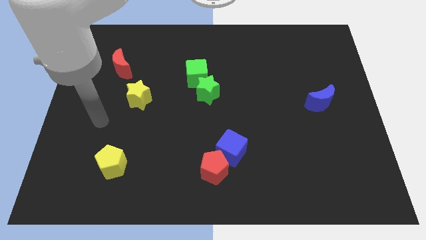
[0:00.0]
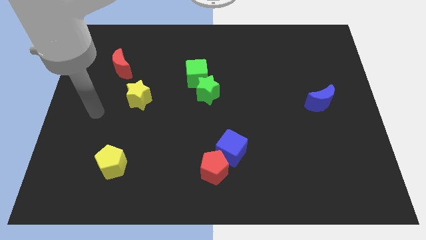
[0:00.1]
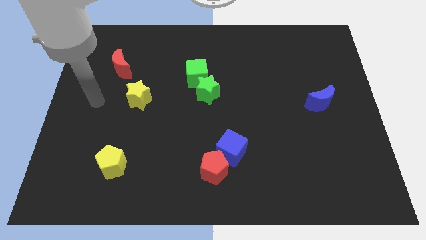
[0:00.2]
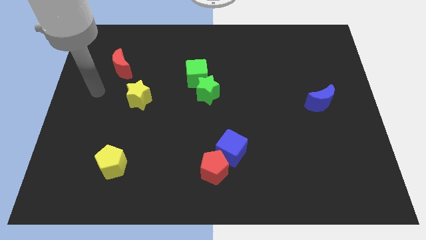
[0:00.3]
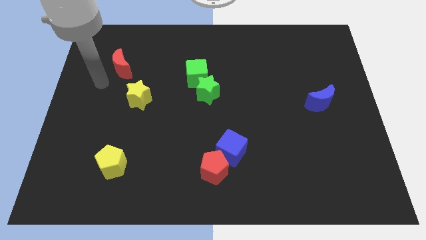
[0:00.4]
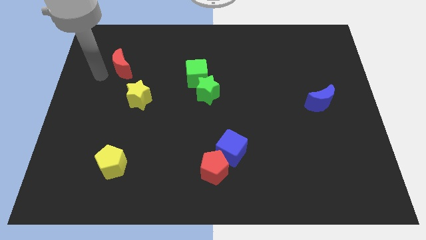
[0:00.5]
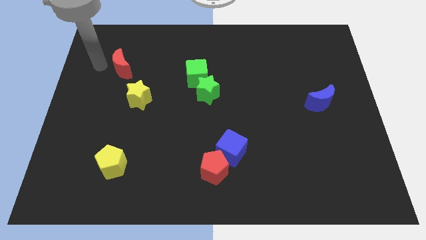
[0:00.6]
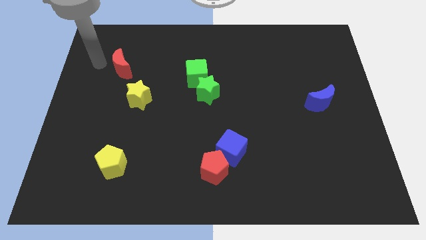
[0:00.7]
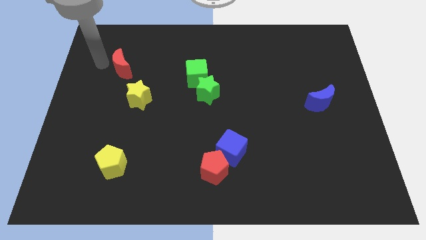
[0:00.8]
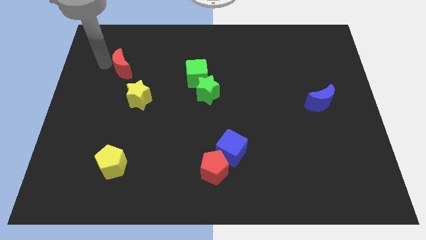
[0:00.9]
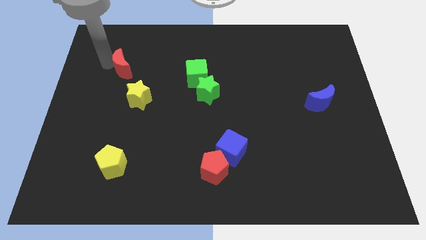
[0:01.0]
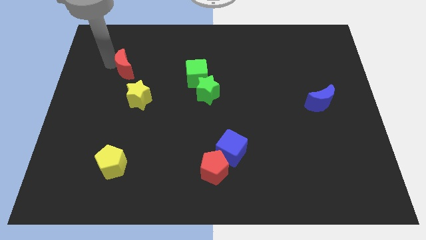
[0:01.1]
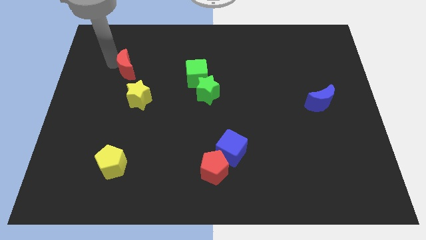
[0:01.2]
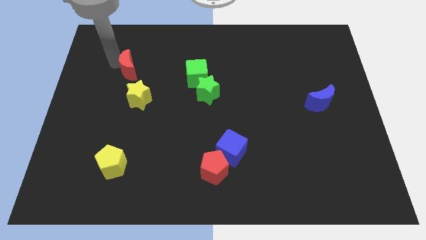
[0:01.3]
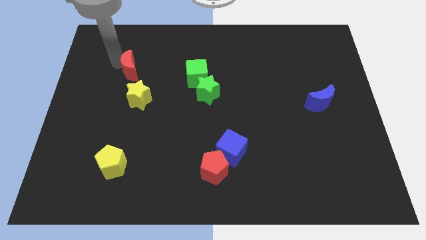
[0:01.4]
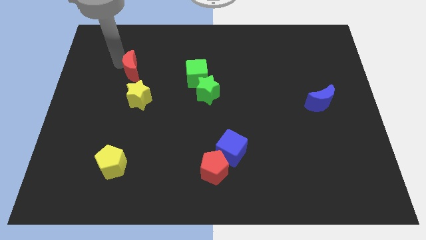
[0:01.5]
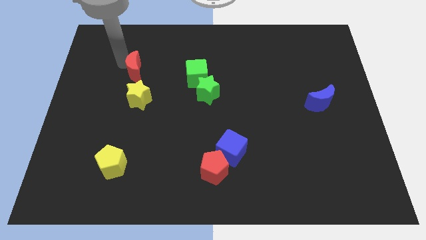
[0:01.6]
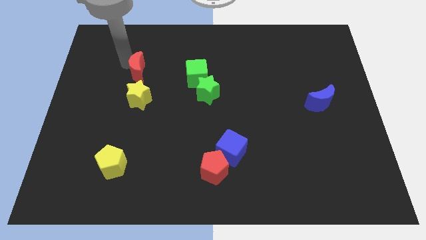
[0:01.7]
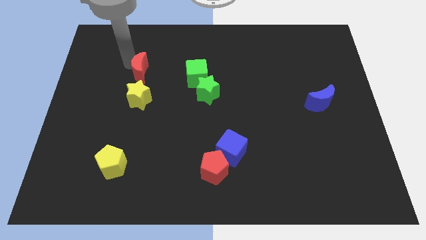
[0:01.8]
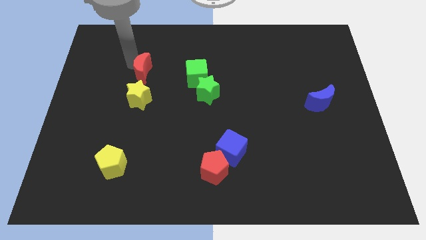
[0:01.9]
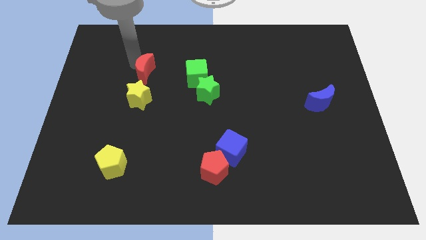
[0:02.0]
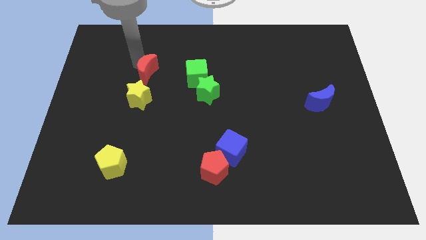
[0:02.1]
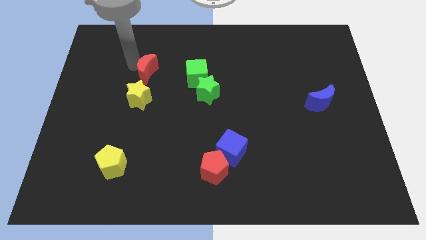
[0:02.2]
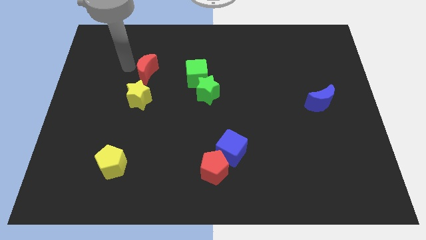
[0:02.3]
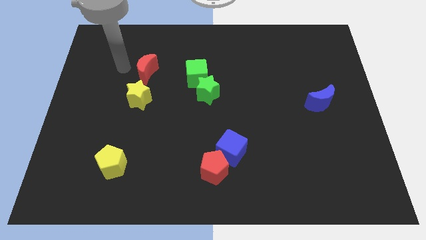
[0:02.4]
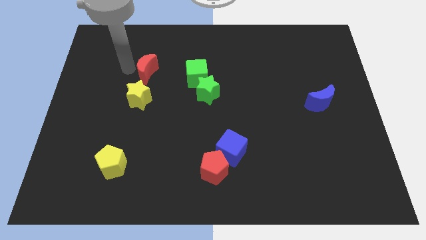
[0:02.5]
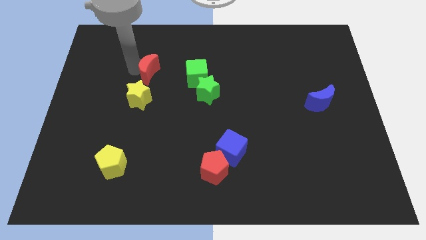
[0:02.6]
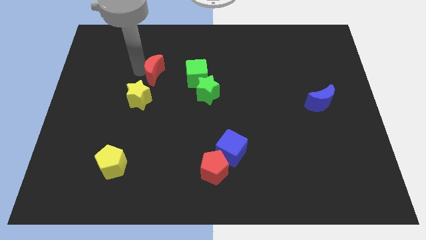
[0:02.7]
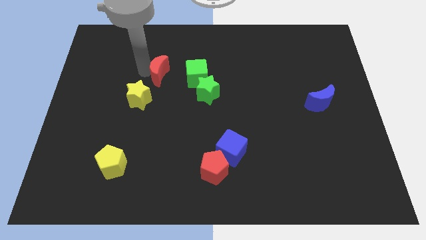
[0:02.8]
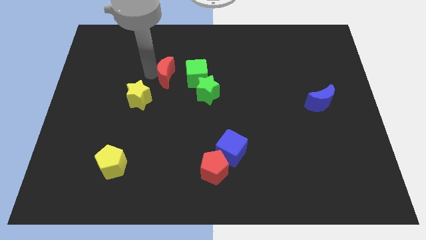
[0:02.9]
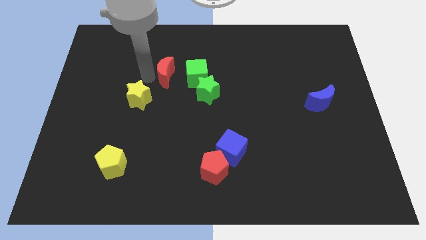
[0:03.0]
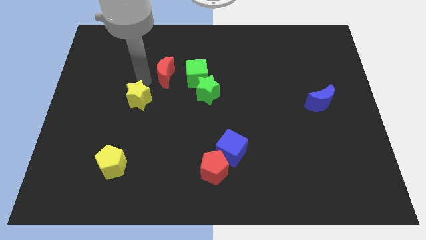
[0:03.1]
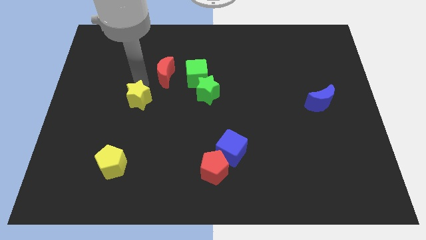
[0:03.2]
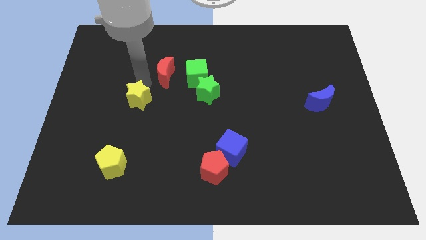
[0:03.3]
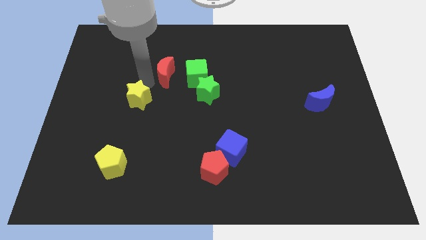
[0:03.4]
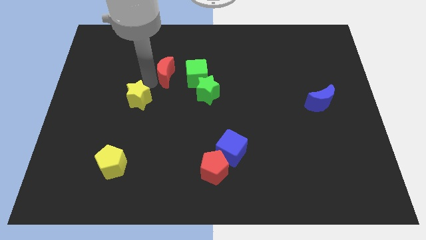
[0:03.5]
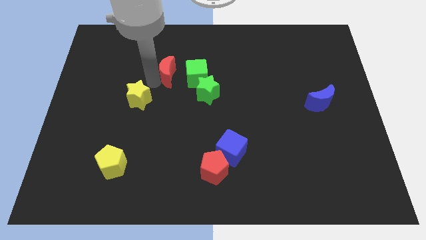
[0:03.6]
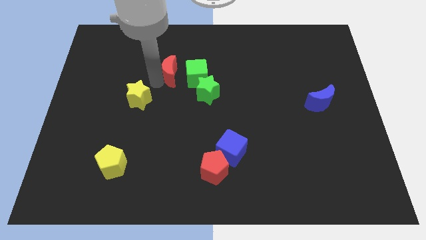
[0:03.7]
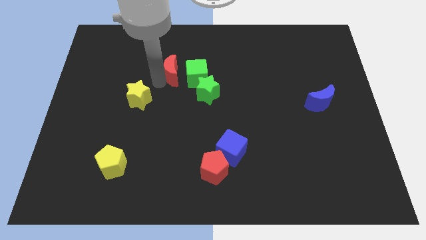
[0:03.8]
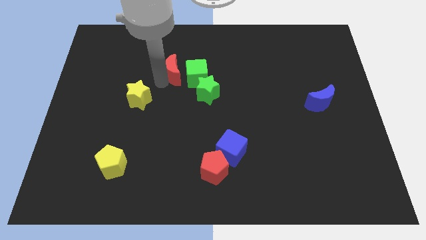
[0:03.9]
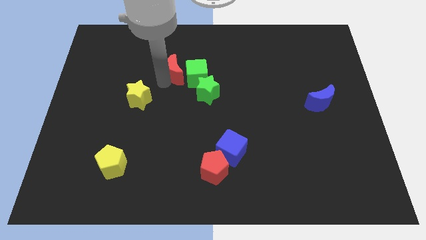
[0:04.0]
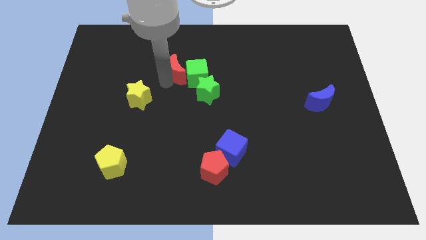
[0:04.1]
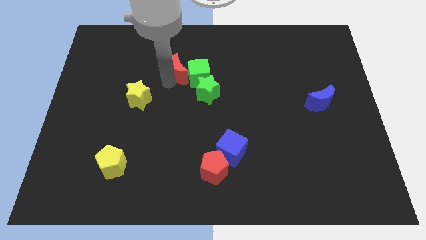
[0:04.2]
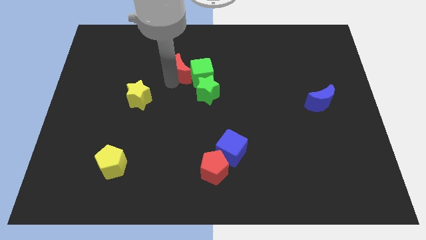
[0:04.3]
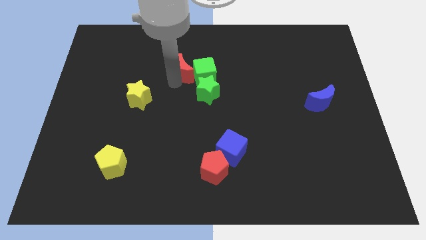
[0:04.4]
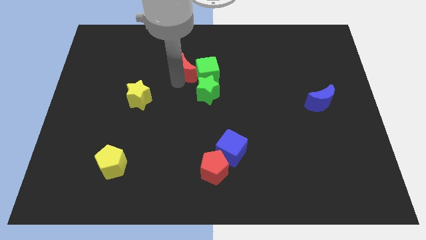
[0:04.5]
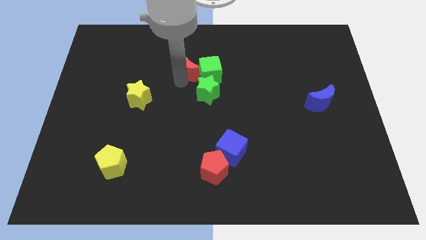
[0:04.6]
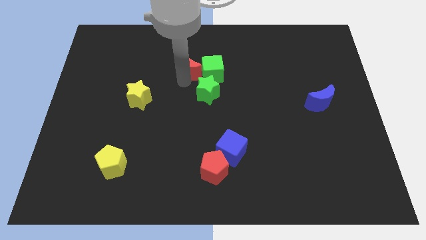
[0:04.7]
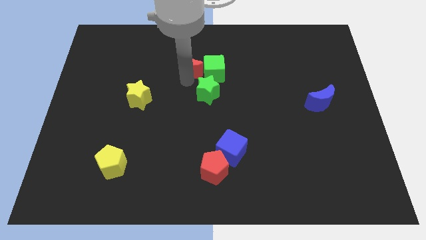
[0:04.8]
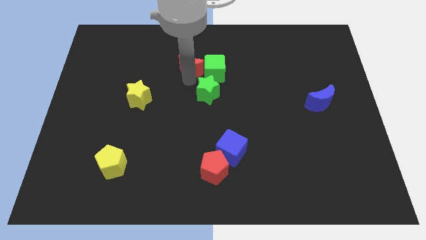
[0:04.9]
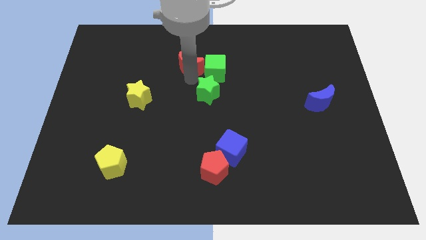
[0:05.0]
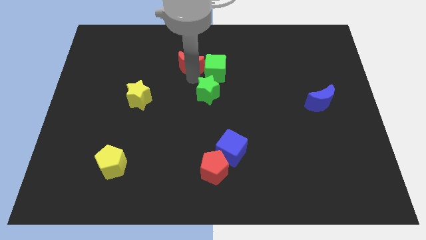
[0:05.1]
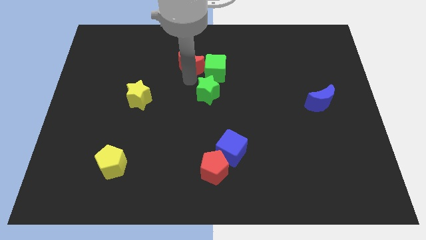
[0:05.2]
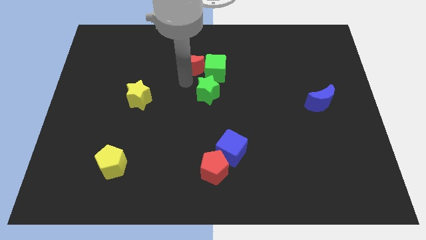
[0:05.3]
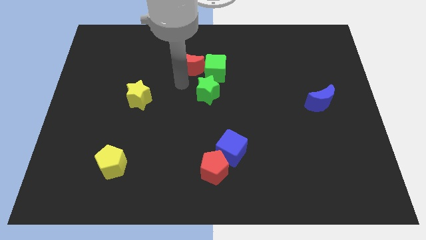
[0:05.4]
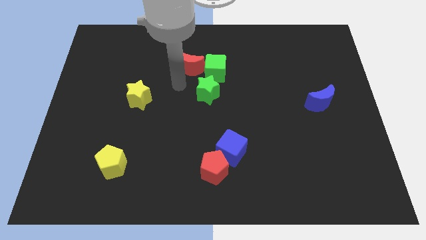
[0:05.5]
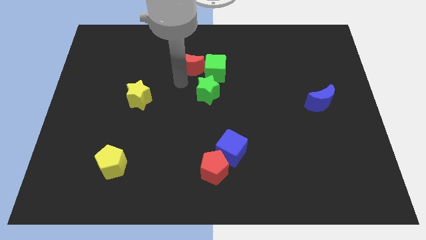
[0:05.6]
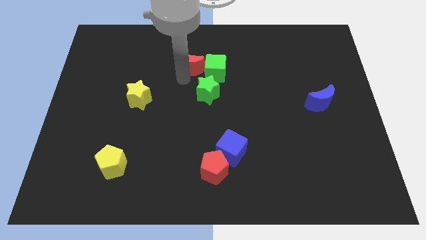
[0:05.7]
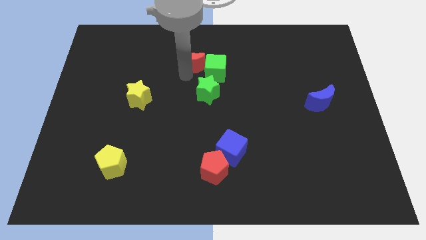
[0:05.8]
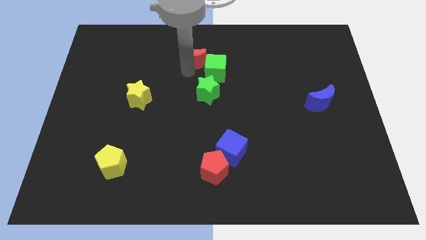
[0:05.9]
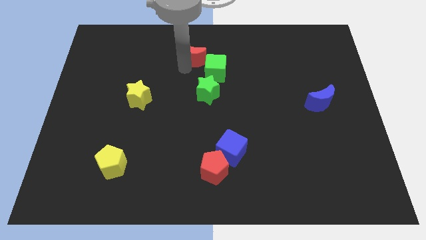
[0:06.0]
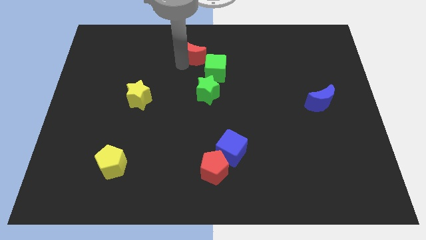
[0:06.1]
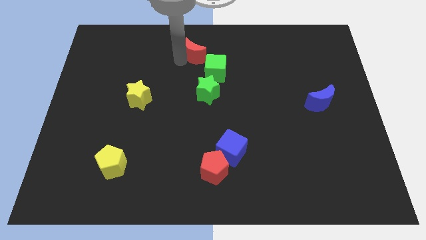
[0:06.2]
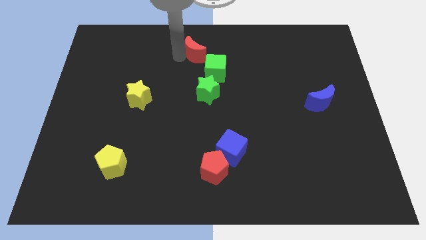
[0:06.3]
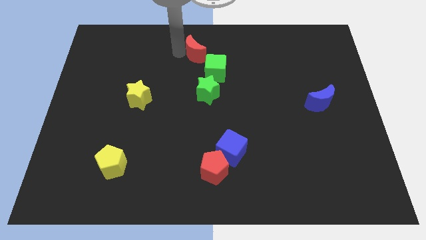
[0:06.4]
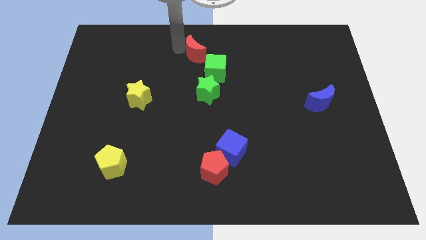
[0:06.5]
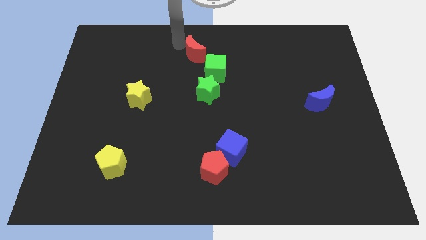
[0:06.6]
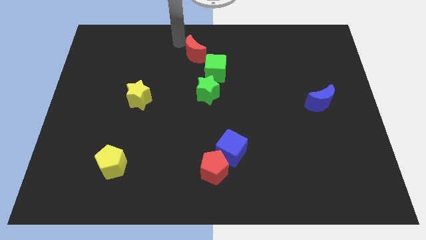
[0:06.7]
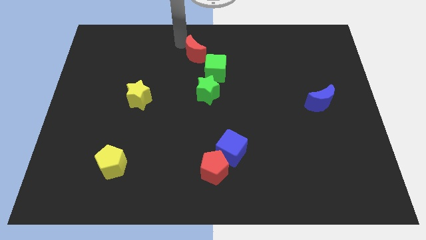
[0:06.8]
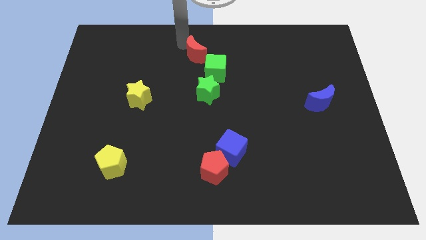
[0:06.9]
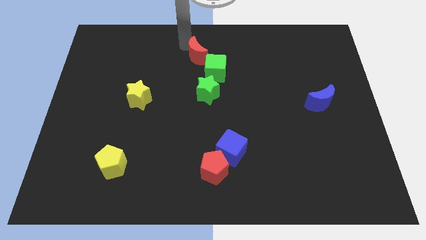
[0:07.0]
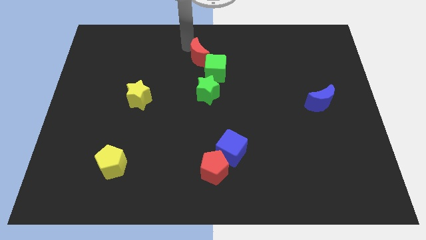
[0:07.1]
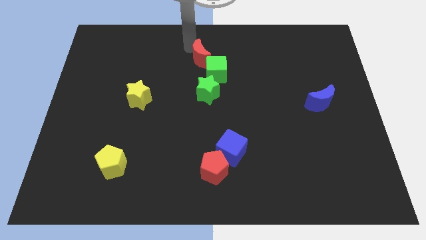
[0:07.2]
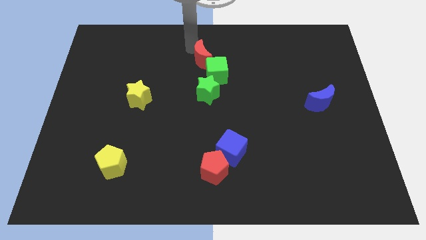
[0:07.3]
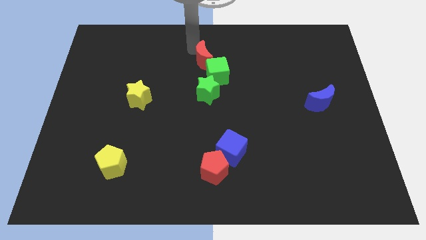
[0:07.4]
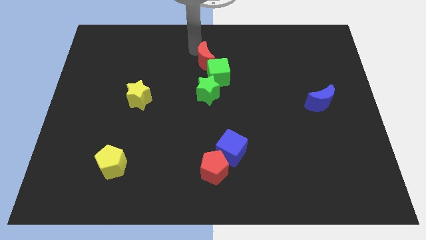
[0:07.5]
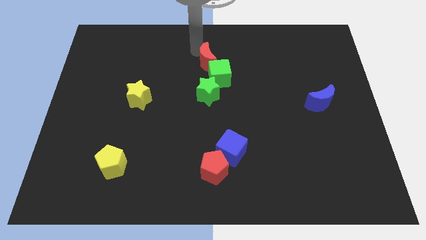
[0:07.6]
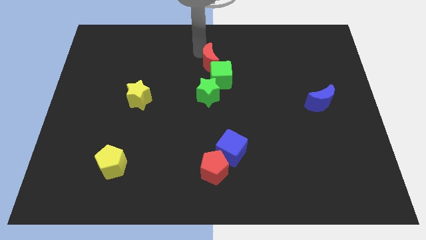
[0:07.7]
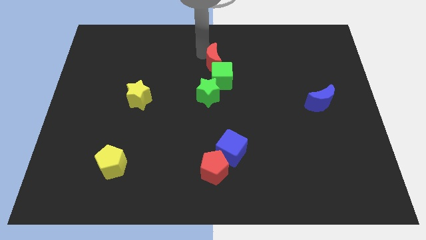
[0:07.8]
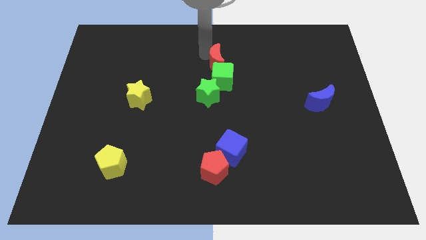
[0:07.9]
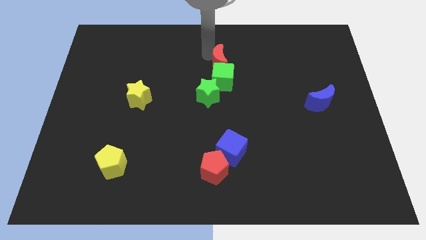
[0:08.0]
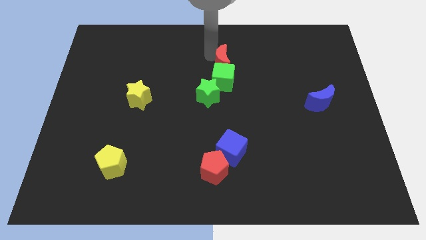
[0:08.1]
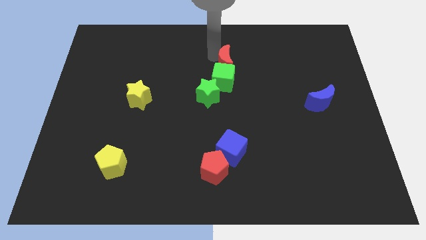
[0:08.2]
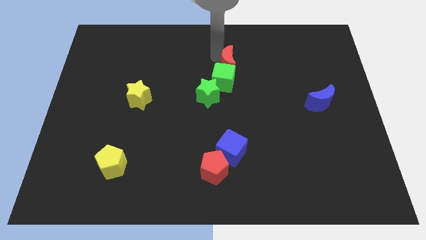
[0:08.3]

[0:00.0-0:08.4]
slide the red moon to the top right side of the green star
